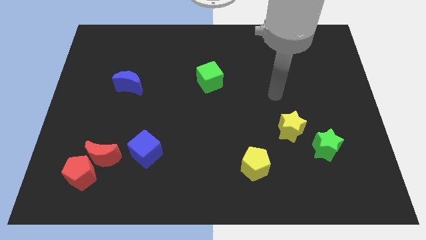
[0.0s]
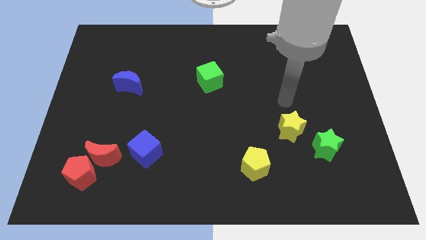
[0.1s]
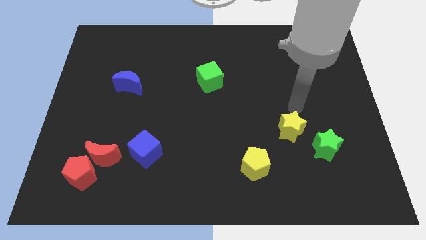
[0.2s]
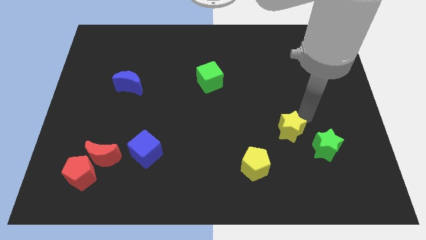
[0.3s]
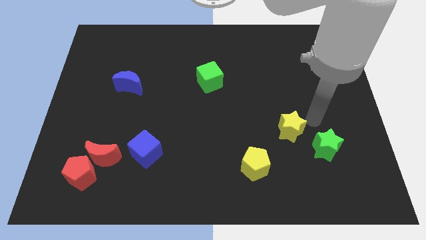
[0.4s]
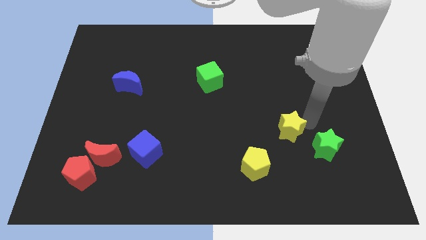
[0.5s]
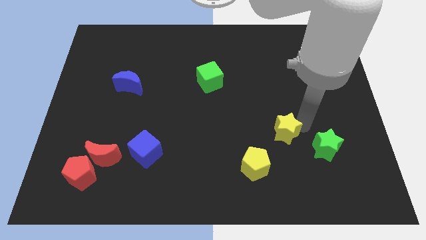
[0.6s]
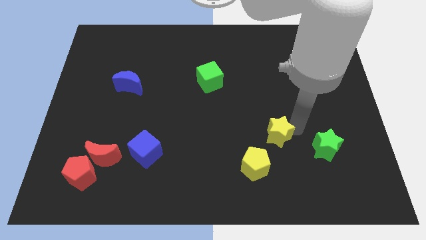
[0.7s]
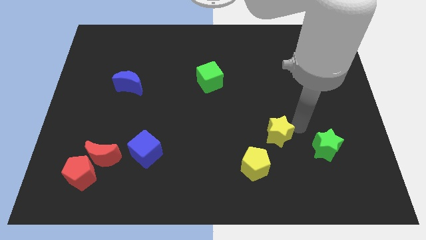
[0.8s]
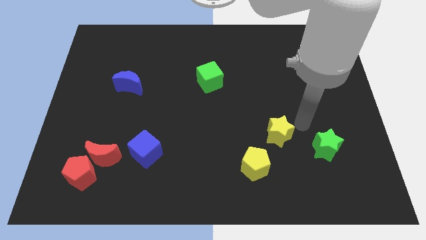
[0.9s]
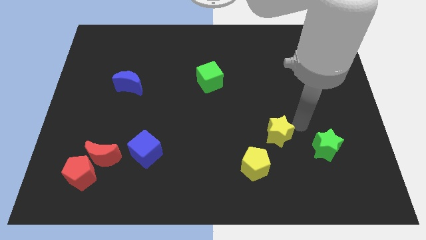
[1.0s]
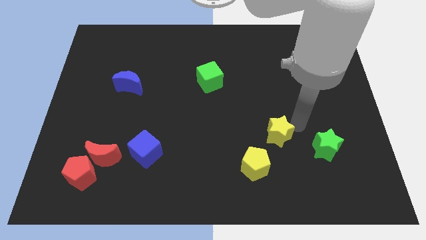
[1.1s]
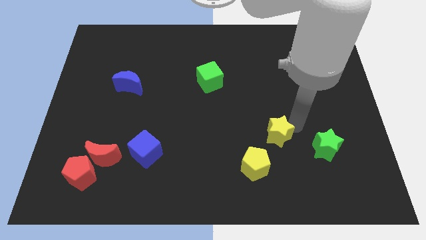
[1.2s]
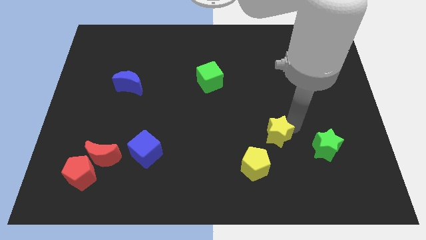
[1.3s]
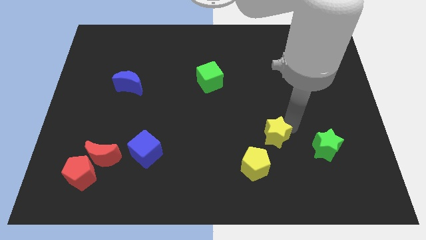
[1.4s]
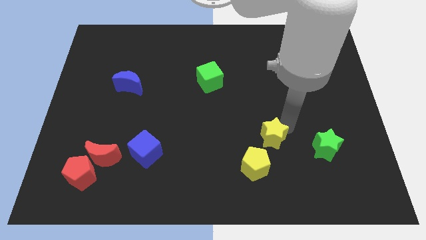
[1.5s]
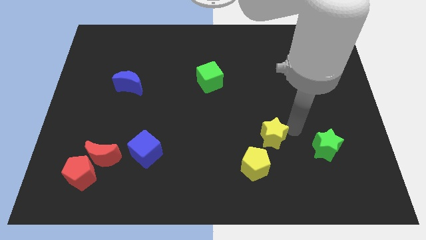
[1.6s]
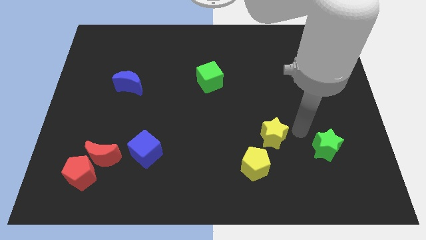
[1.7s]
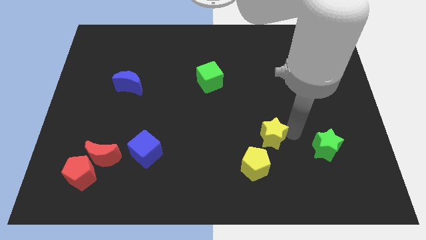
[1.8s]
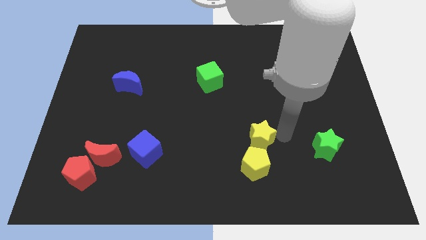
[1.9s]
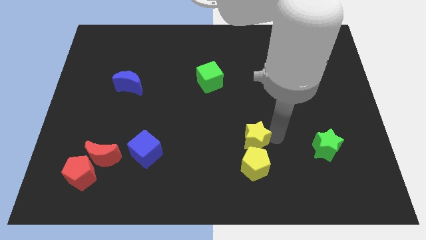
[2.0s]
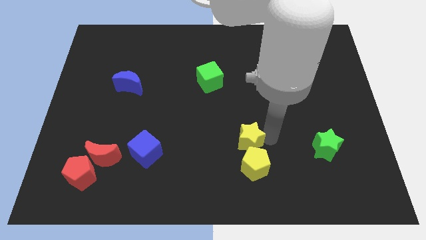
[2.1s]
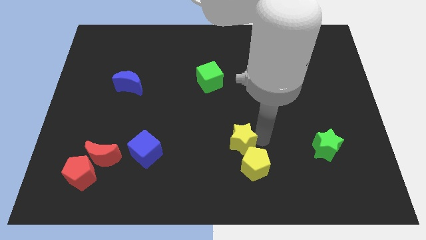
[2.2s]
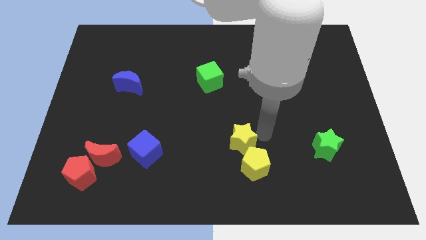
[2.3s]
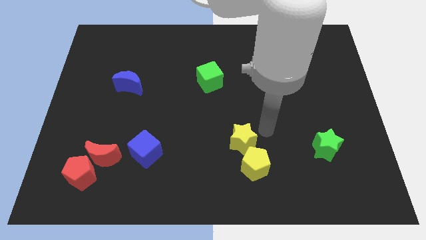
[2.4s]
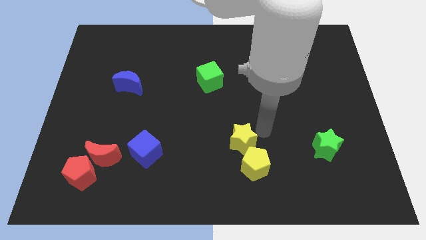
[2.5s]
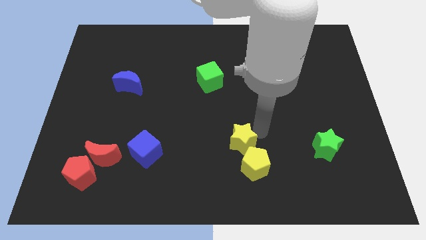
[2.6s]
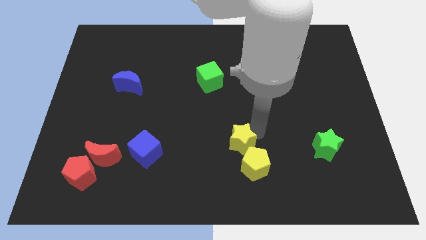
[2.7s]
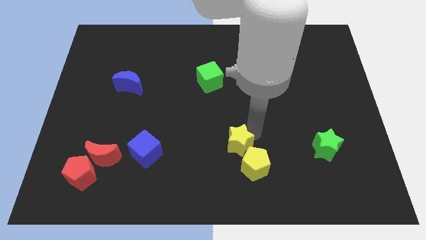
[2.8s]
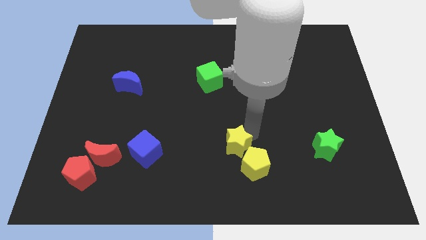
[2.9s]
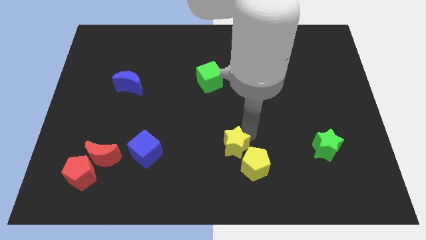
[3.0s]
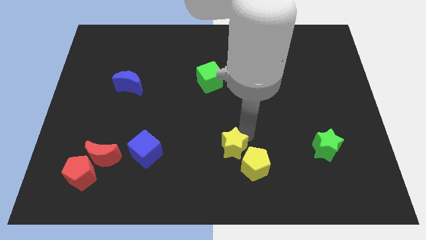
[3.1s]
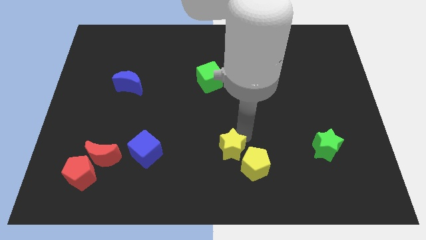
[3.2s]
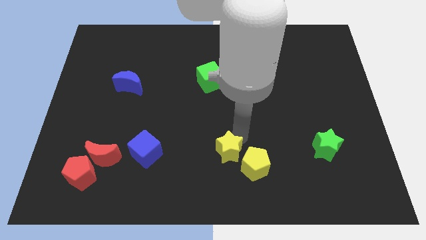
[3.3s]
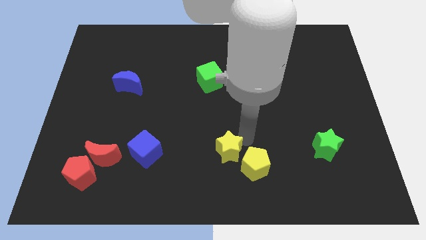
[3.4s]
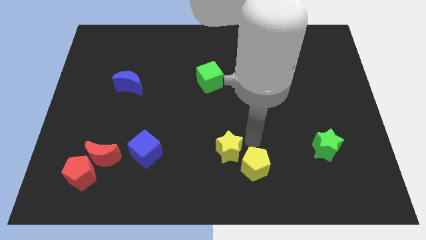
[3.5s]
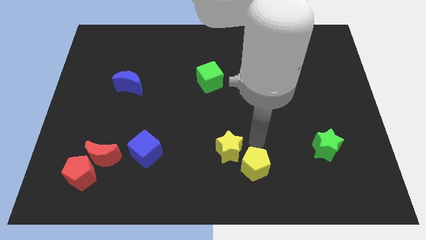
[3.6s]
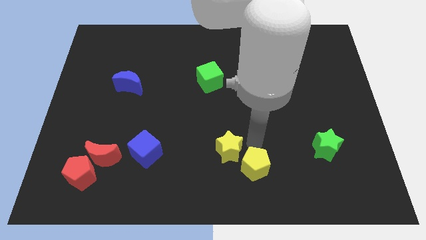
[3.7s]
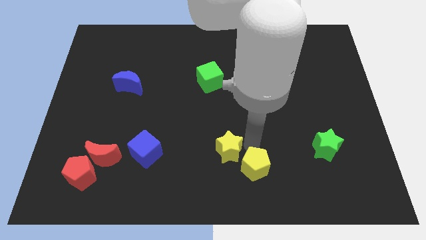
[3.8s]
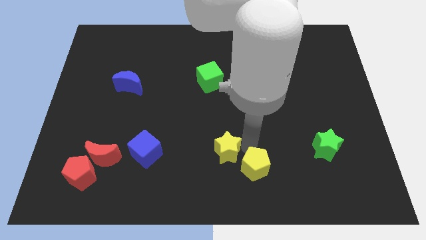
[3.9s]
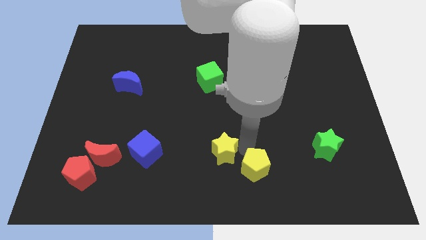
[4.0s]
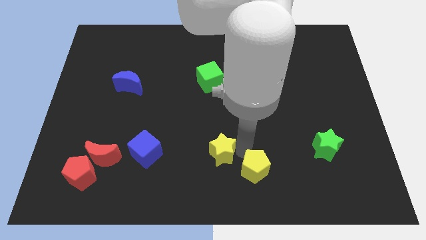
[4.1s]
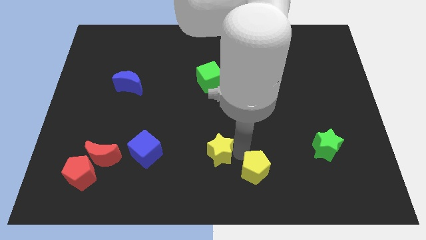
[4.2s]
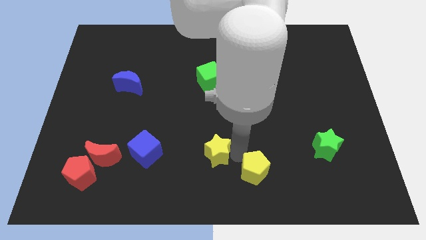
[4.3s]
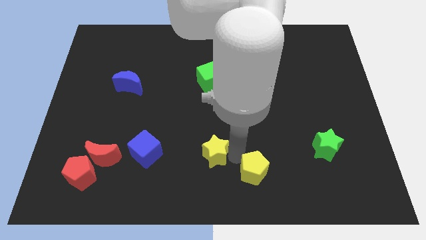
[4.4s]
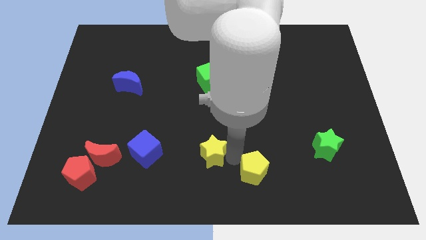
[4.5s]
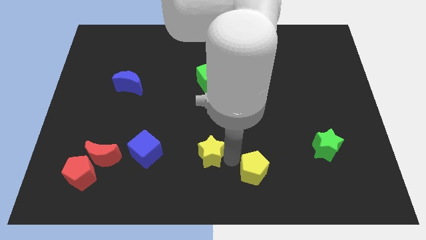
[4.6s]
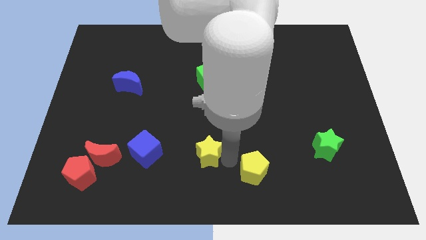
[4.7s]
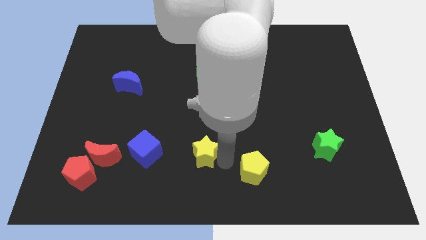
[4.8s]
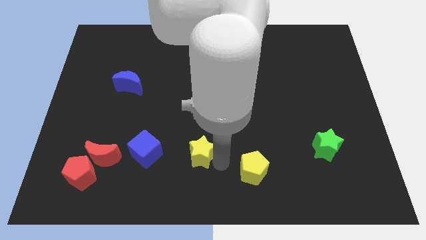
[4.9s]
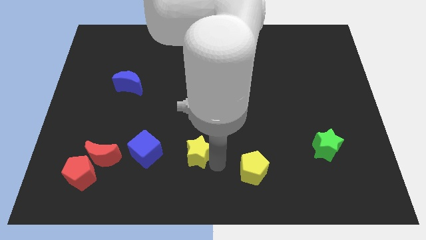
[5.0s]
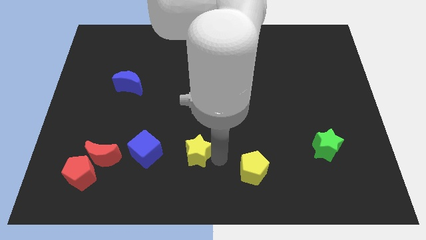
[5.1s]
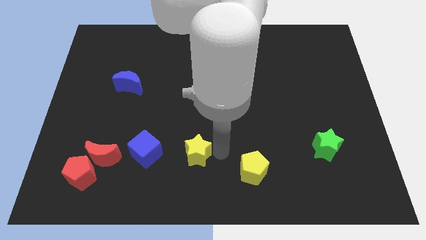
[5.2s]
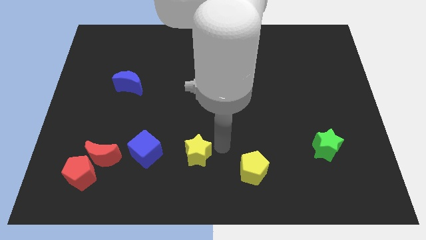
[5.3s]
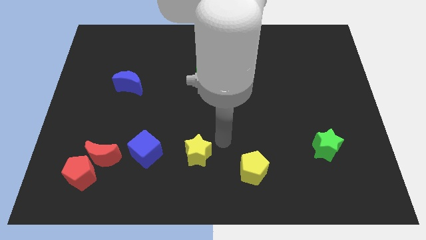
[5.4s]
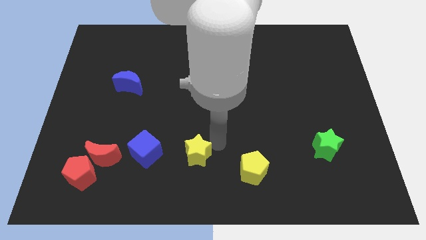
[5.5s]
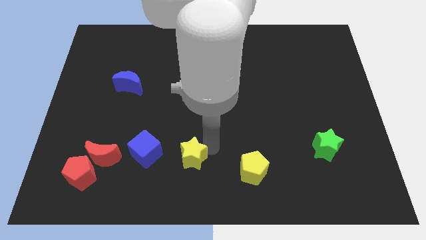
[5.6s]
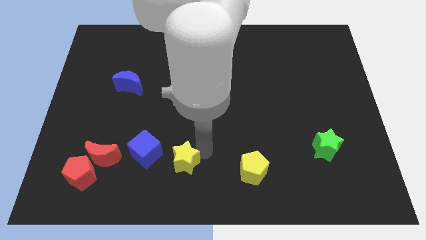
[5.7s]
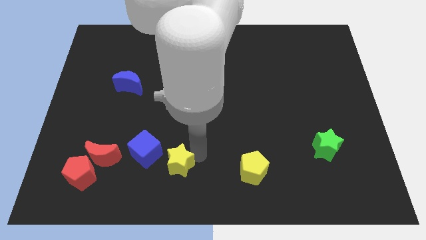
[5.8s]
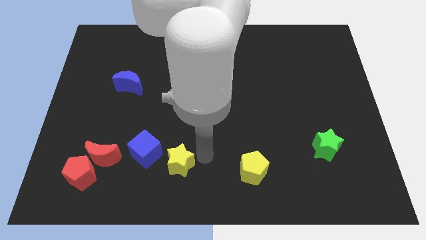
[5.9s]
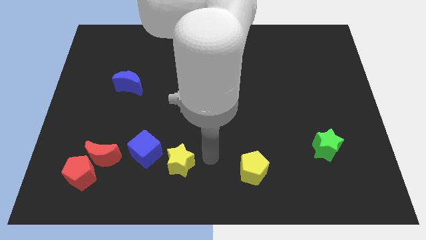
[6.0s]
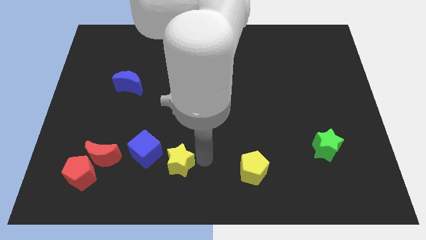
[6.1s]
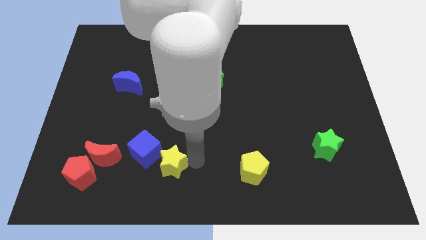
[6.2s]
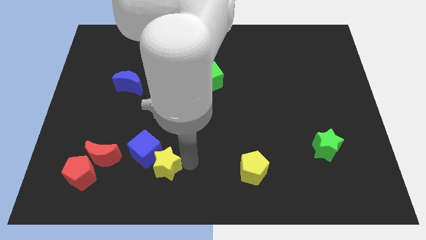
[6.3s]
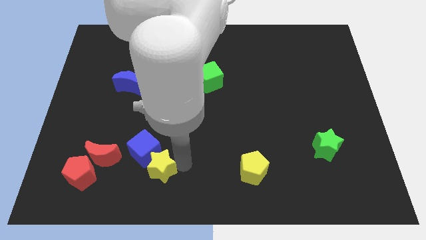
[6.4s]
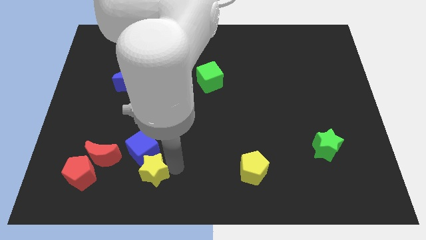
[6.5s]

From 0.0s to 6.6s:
slide the yellow star right of the red pentagon

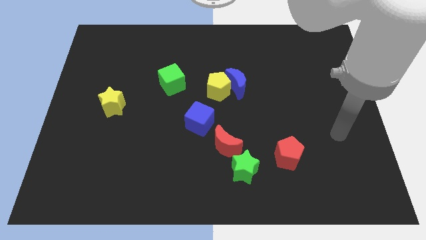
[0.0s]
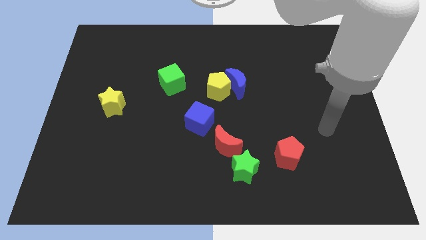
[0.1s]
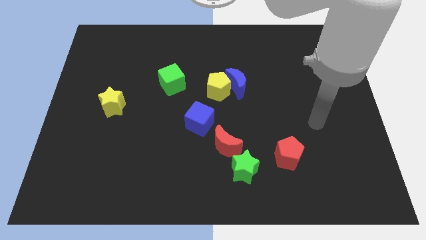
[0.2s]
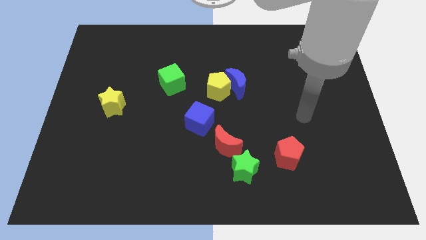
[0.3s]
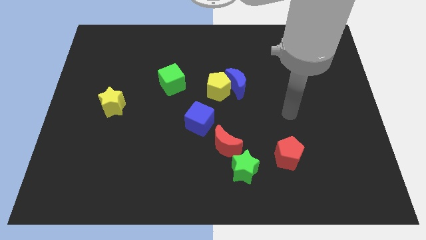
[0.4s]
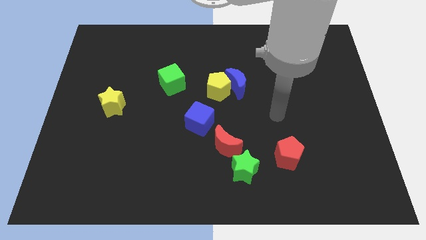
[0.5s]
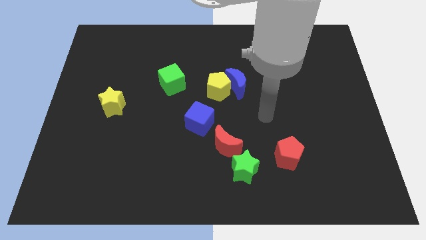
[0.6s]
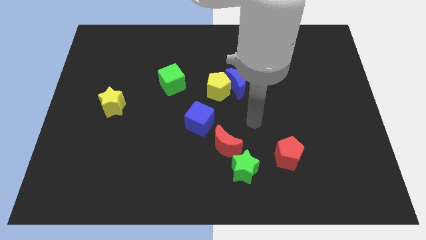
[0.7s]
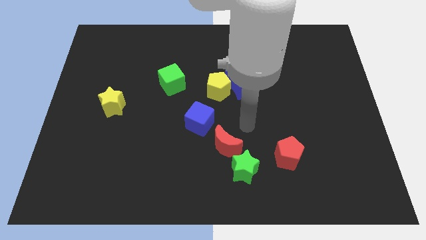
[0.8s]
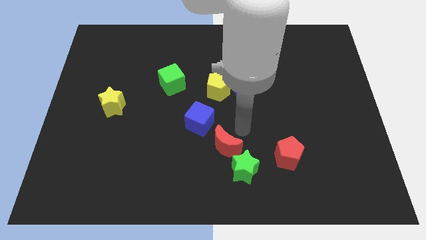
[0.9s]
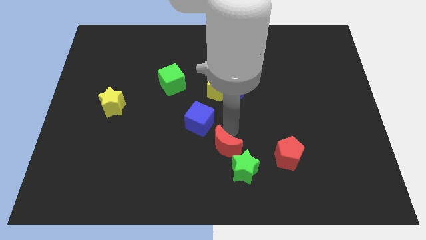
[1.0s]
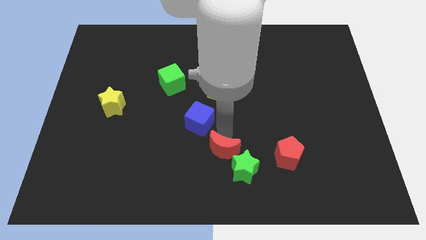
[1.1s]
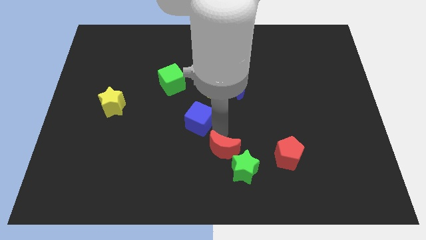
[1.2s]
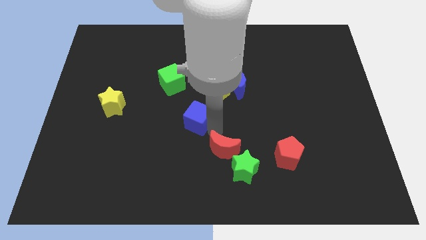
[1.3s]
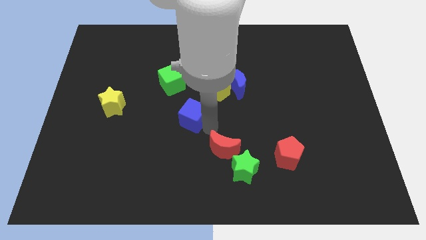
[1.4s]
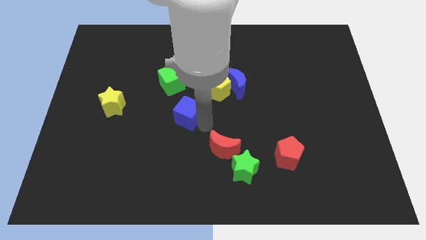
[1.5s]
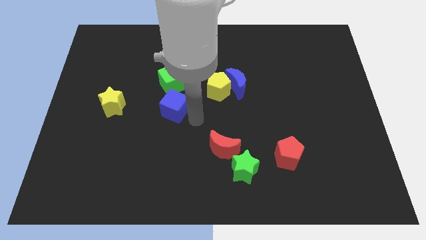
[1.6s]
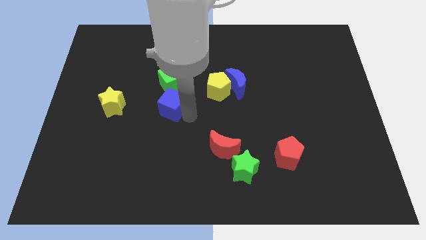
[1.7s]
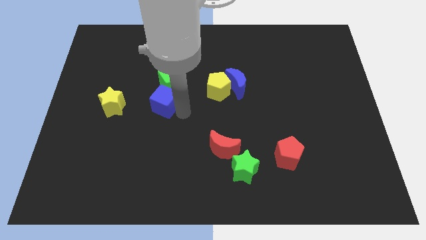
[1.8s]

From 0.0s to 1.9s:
slide the blue cube diagonally down and to the left of the green cube
